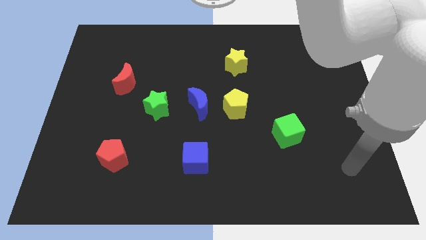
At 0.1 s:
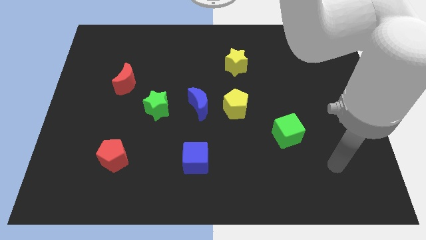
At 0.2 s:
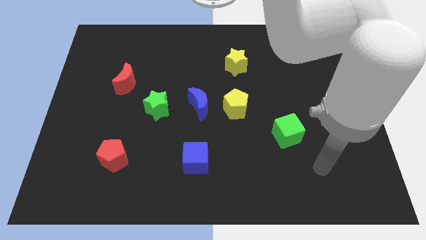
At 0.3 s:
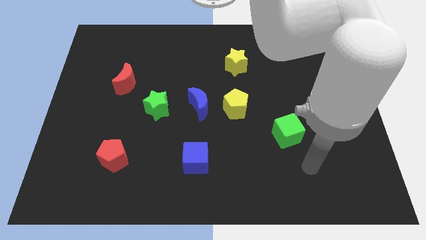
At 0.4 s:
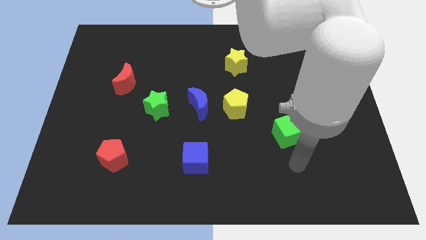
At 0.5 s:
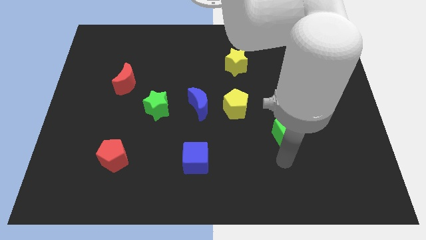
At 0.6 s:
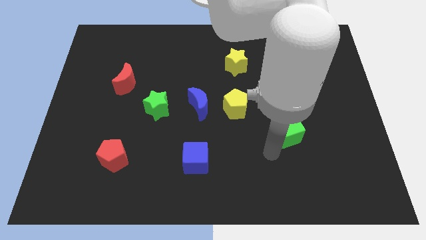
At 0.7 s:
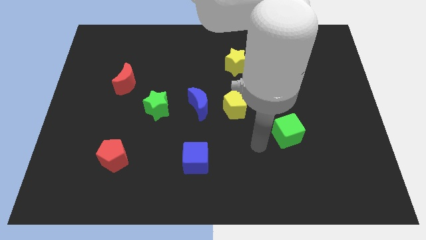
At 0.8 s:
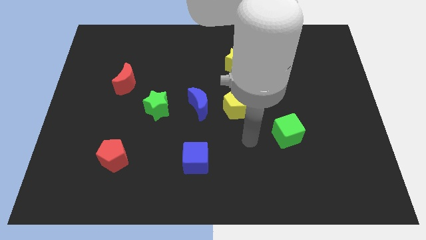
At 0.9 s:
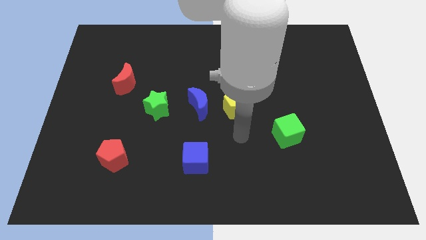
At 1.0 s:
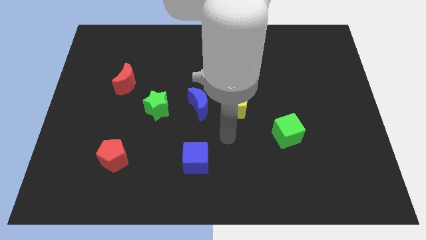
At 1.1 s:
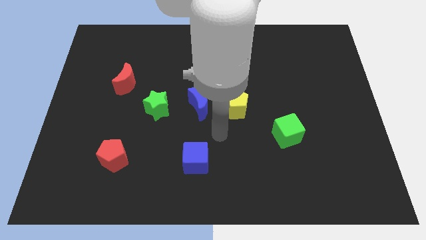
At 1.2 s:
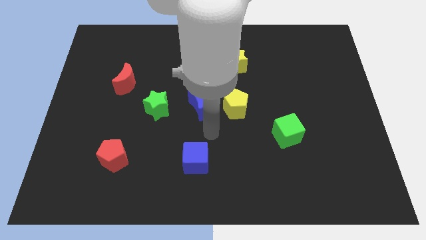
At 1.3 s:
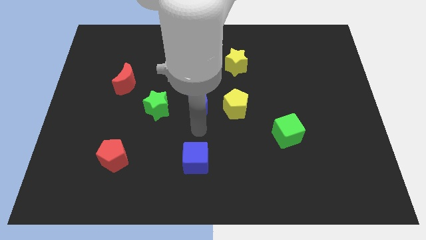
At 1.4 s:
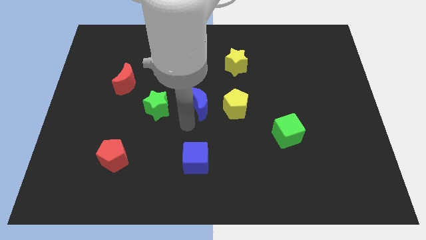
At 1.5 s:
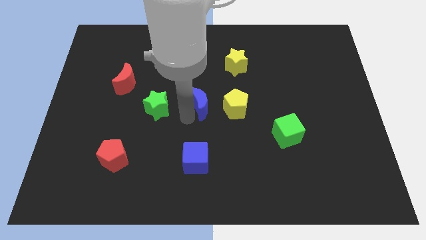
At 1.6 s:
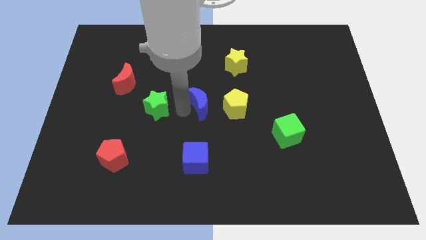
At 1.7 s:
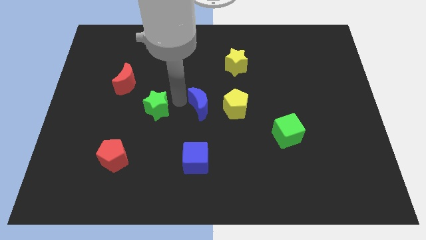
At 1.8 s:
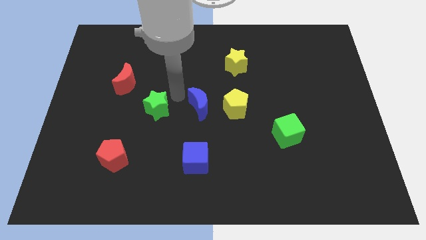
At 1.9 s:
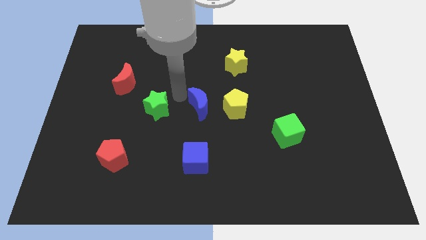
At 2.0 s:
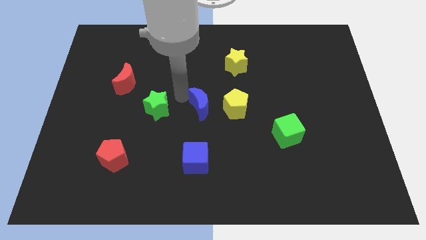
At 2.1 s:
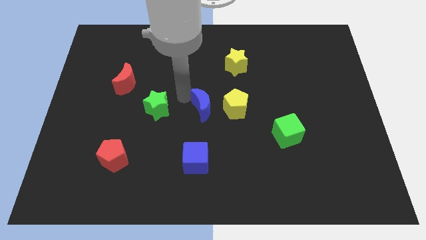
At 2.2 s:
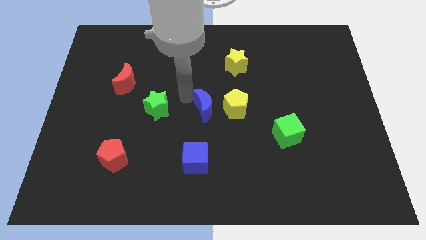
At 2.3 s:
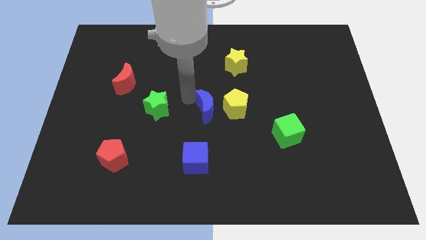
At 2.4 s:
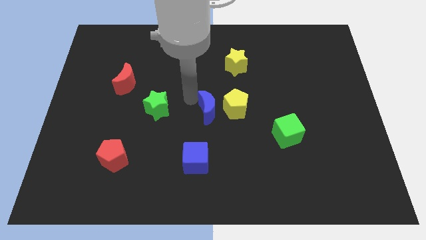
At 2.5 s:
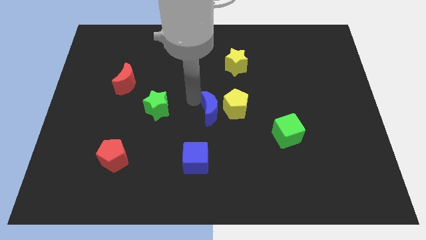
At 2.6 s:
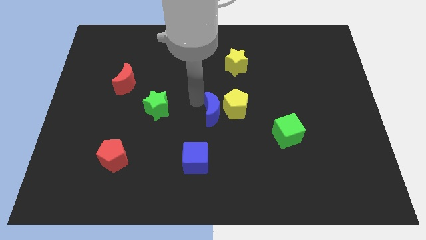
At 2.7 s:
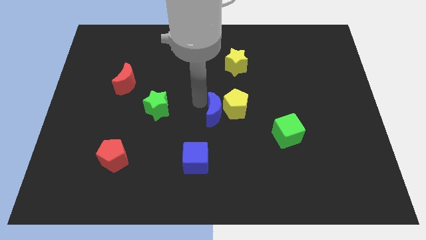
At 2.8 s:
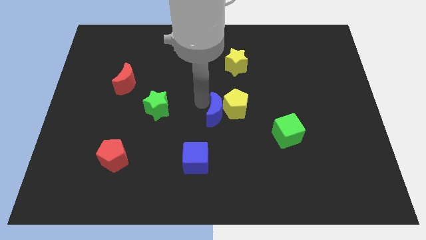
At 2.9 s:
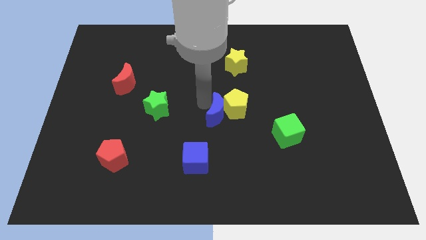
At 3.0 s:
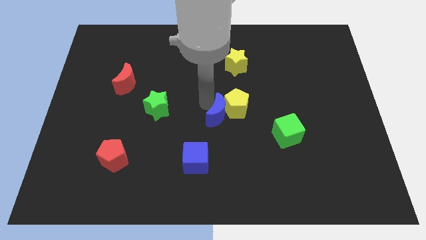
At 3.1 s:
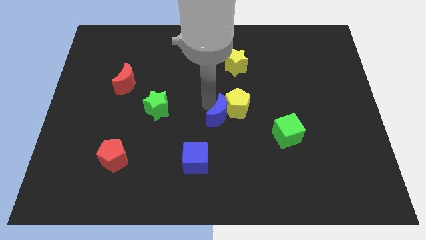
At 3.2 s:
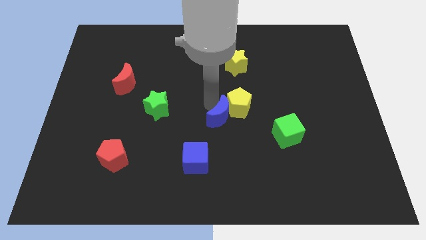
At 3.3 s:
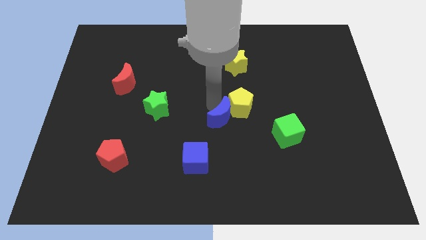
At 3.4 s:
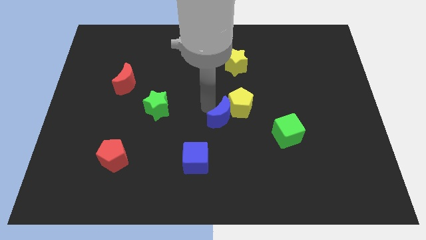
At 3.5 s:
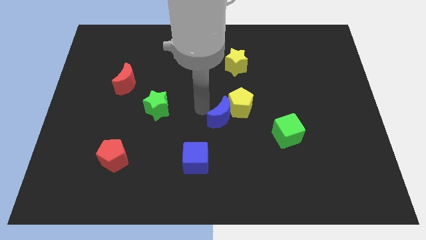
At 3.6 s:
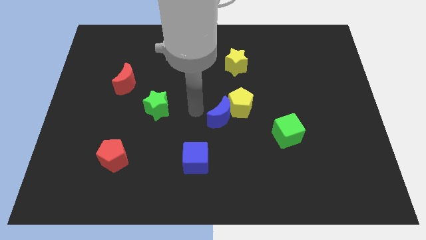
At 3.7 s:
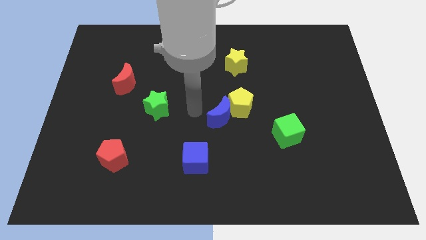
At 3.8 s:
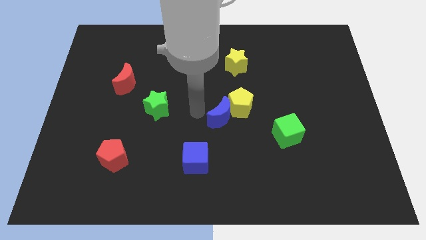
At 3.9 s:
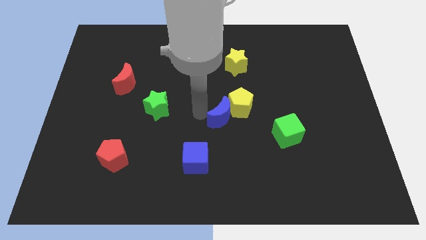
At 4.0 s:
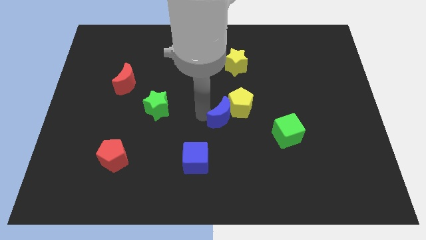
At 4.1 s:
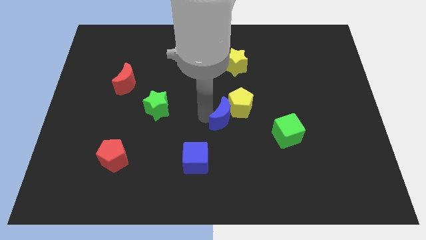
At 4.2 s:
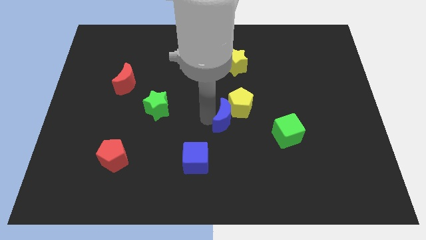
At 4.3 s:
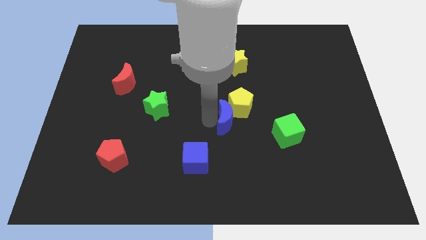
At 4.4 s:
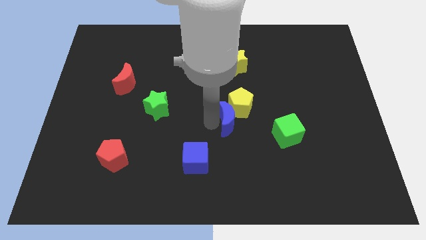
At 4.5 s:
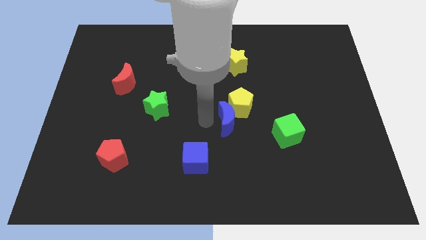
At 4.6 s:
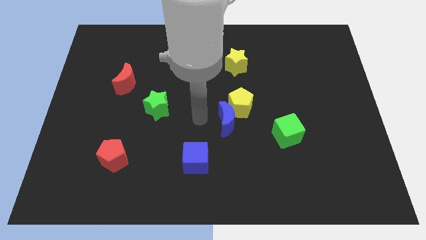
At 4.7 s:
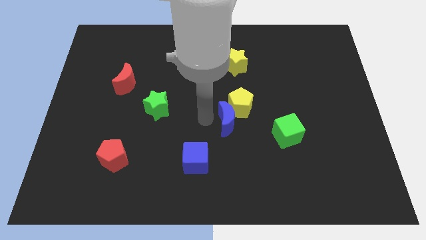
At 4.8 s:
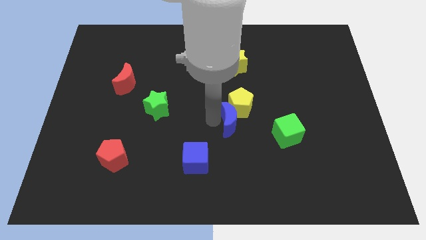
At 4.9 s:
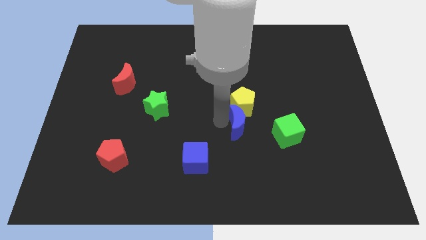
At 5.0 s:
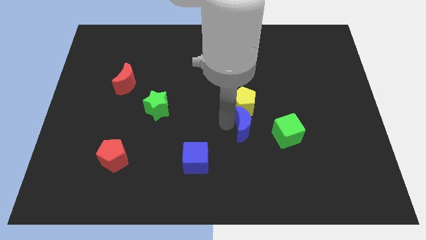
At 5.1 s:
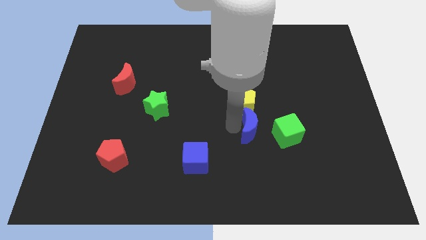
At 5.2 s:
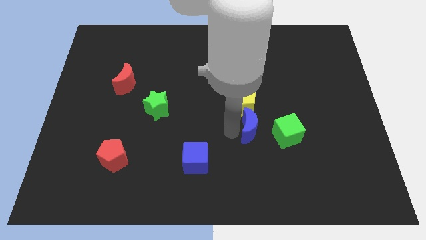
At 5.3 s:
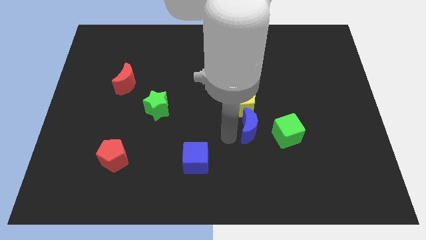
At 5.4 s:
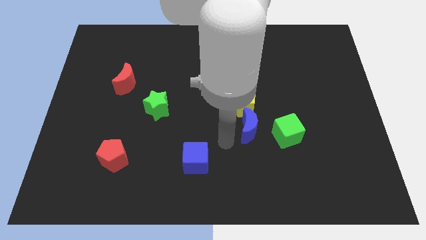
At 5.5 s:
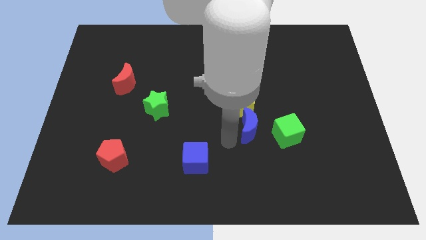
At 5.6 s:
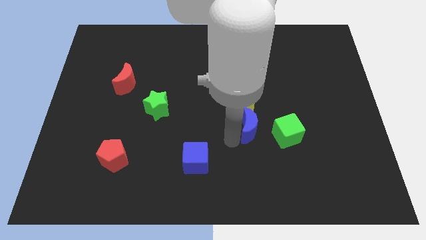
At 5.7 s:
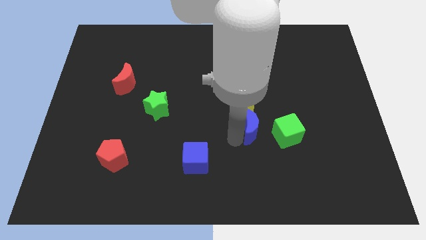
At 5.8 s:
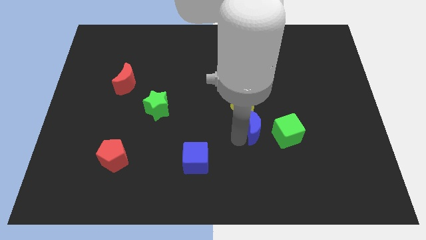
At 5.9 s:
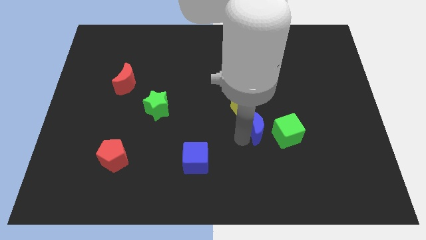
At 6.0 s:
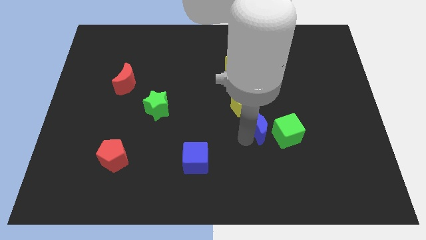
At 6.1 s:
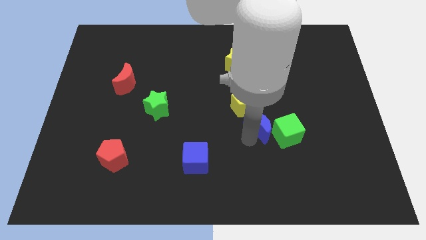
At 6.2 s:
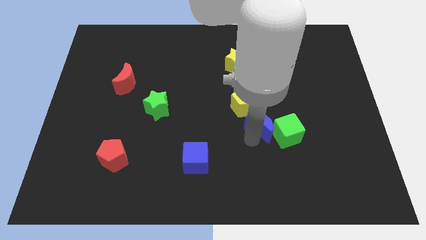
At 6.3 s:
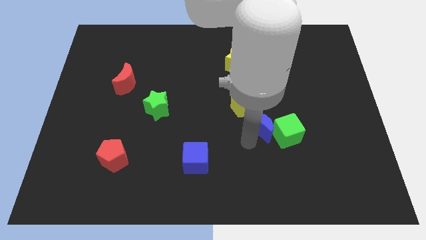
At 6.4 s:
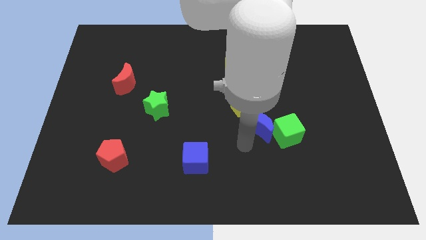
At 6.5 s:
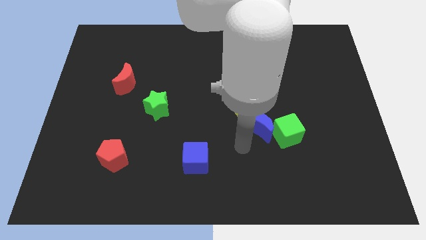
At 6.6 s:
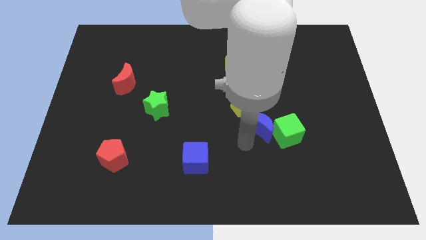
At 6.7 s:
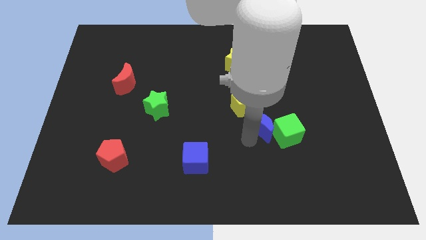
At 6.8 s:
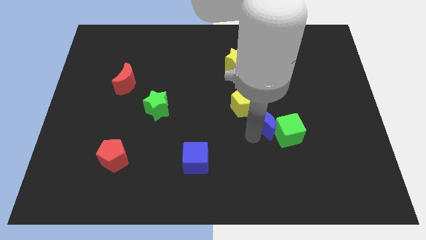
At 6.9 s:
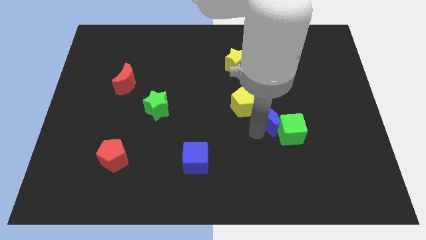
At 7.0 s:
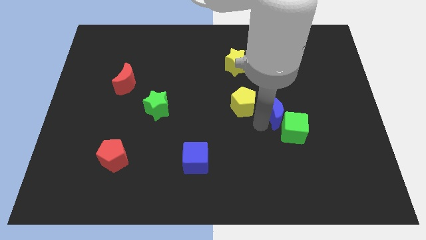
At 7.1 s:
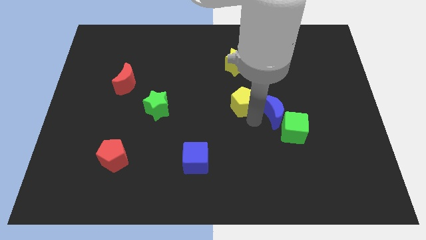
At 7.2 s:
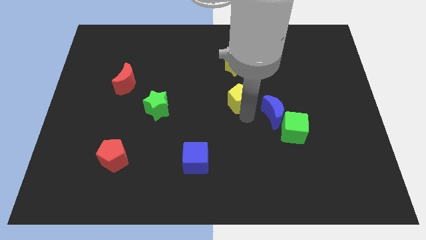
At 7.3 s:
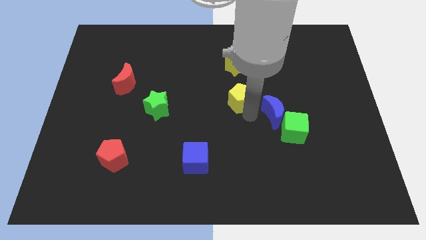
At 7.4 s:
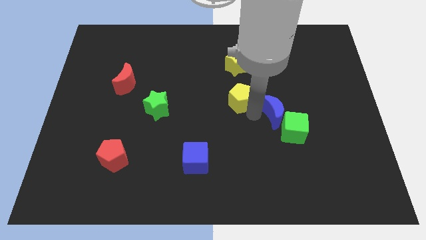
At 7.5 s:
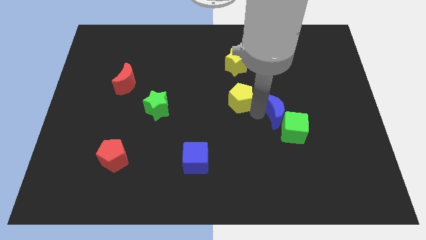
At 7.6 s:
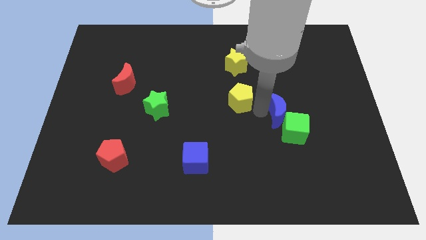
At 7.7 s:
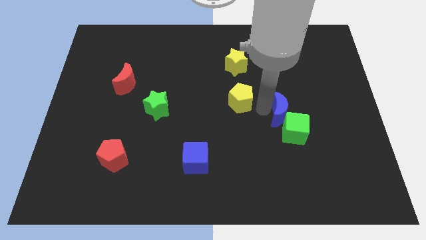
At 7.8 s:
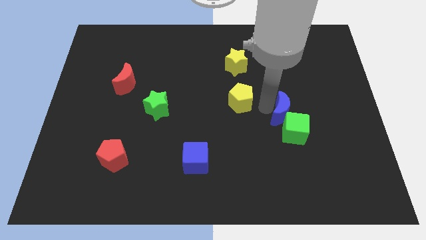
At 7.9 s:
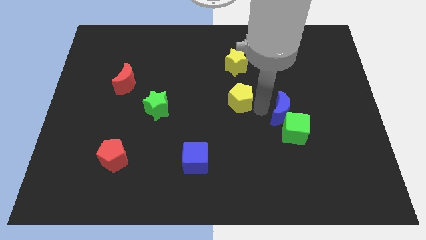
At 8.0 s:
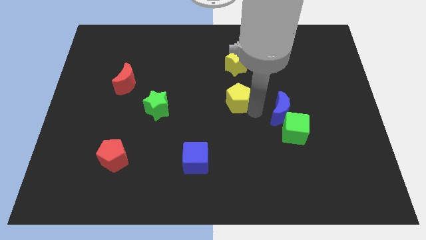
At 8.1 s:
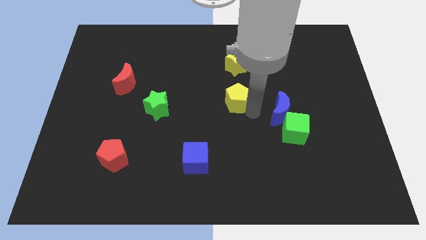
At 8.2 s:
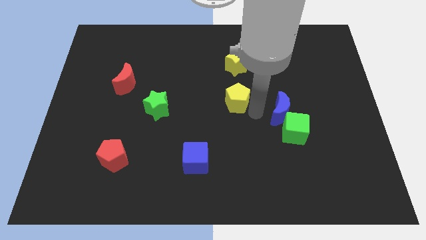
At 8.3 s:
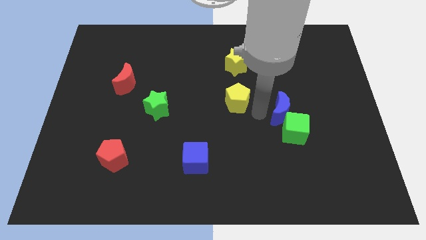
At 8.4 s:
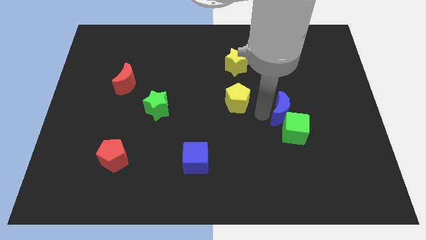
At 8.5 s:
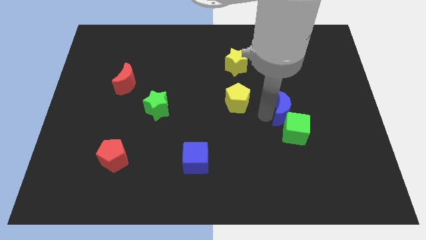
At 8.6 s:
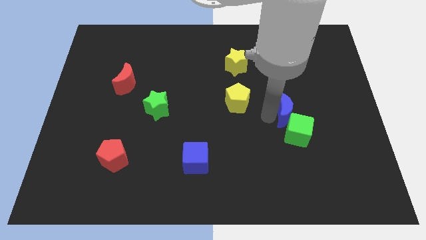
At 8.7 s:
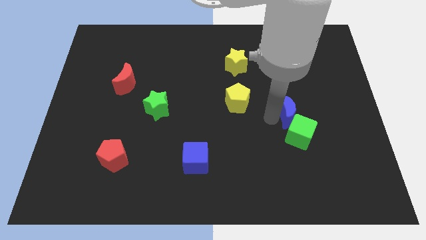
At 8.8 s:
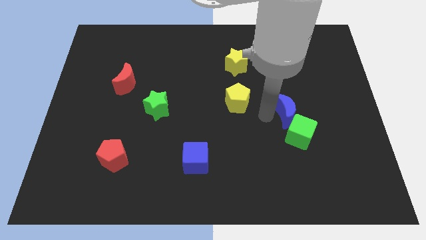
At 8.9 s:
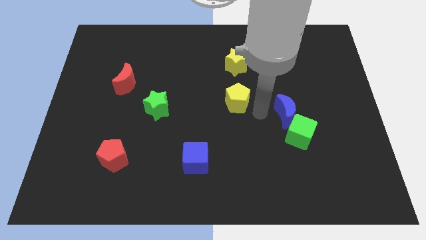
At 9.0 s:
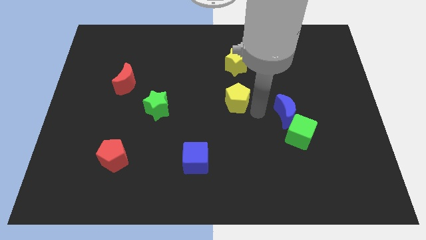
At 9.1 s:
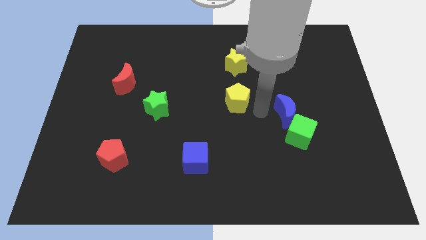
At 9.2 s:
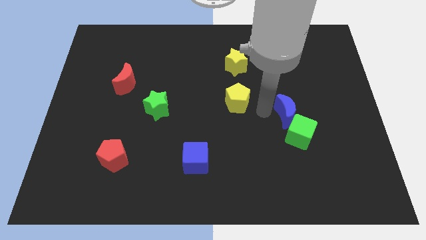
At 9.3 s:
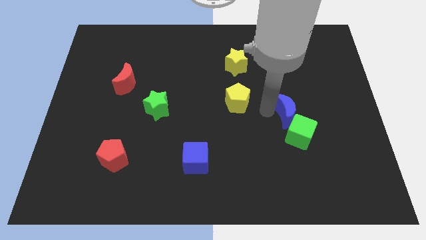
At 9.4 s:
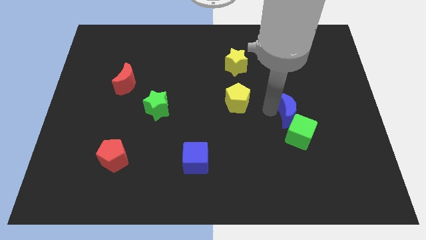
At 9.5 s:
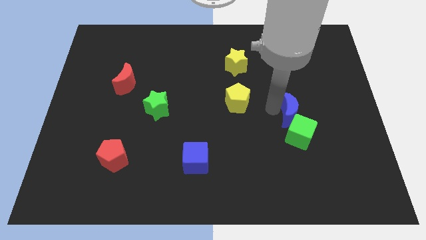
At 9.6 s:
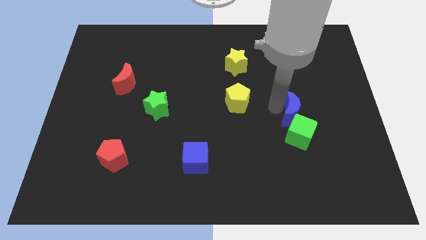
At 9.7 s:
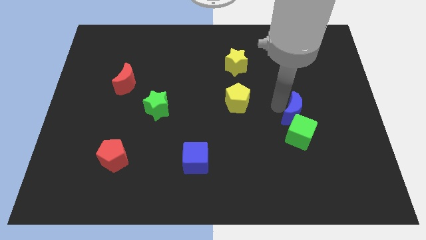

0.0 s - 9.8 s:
push the blue moon to the top right side of the green cube
